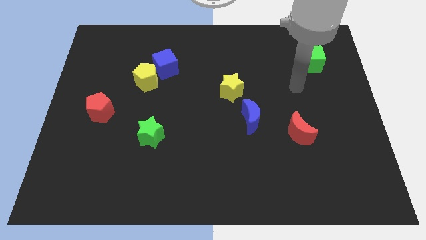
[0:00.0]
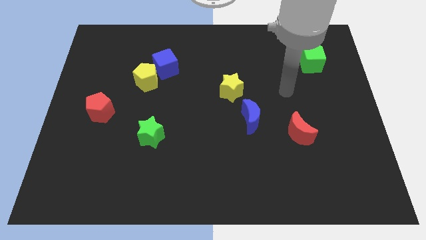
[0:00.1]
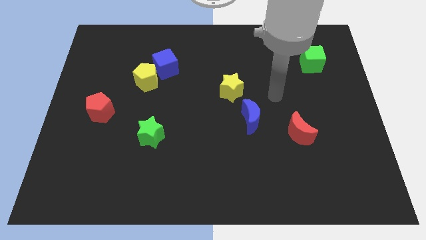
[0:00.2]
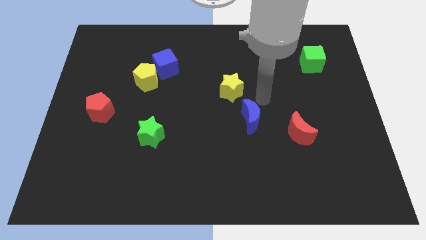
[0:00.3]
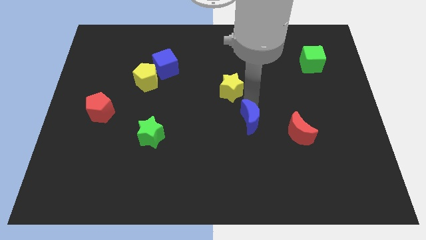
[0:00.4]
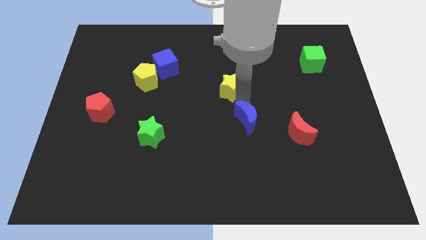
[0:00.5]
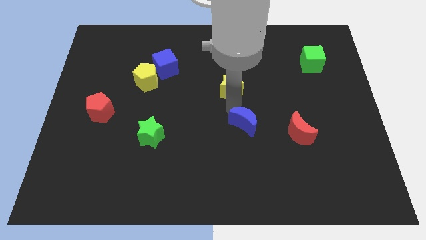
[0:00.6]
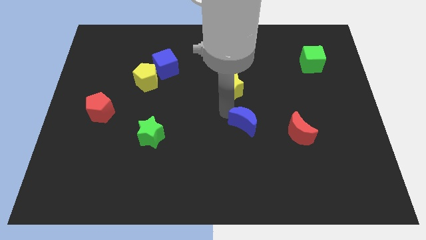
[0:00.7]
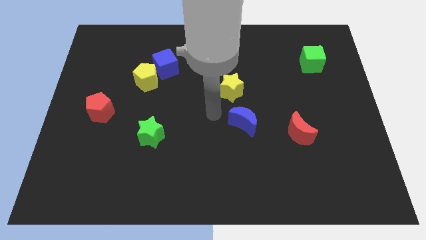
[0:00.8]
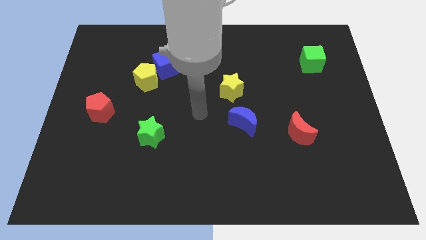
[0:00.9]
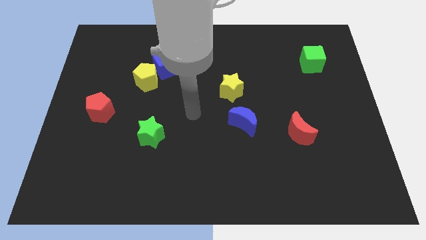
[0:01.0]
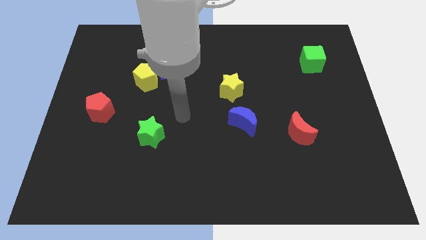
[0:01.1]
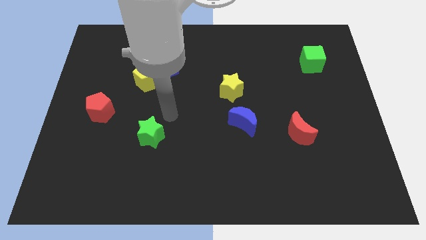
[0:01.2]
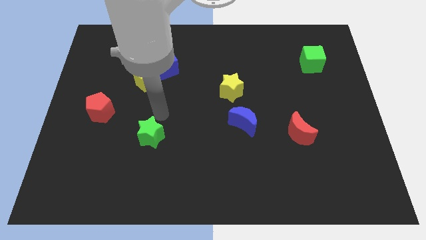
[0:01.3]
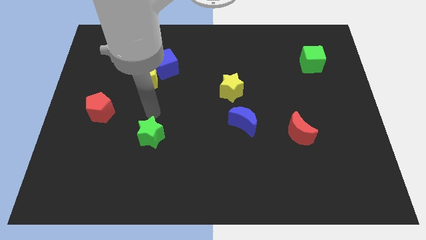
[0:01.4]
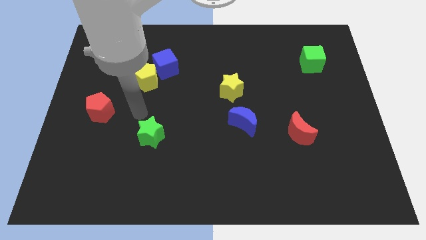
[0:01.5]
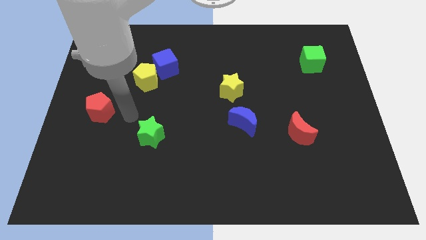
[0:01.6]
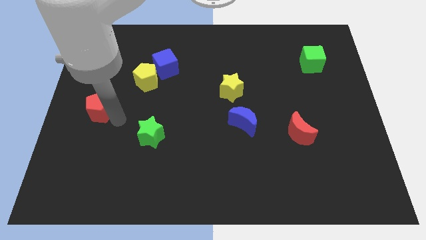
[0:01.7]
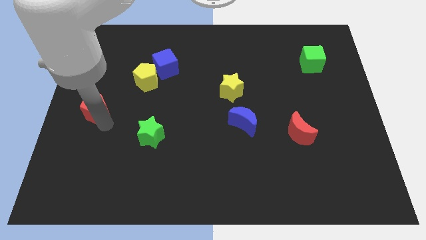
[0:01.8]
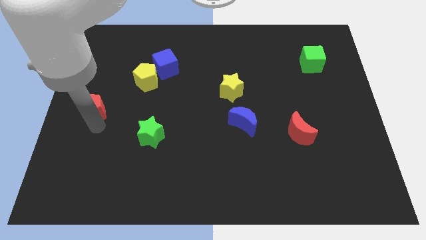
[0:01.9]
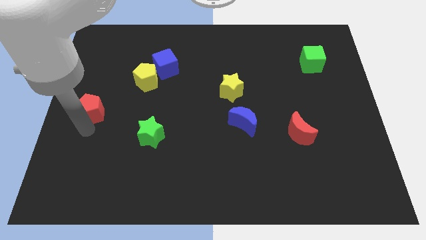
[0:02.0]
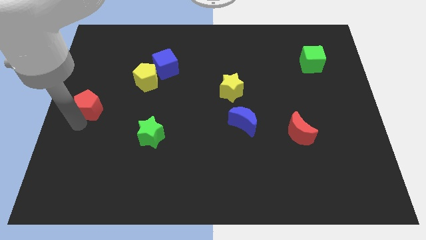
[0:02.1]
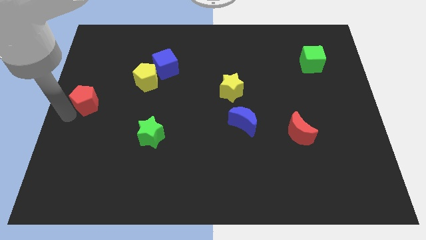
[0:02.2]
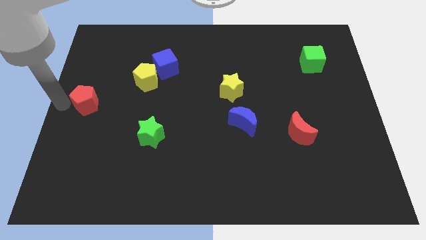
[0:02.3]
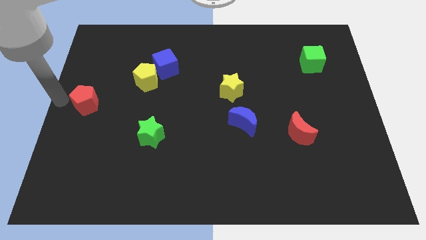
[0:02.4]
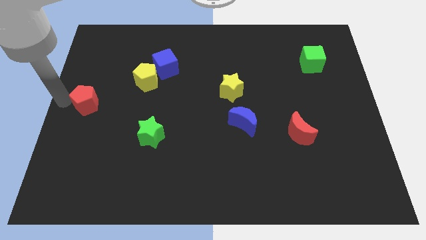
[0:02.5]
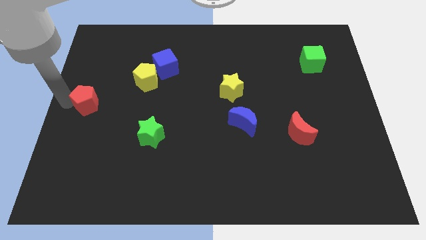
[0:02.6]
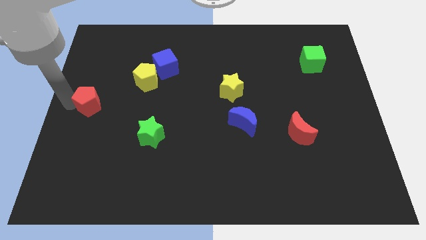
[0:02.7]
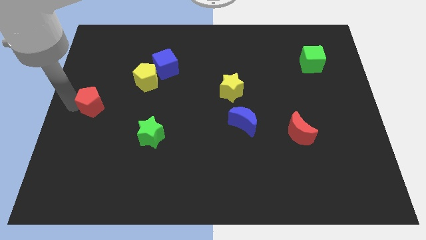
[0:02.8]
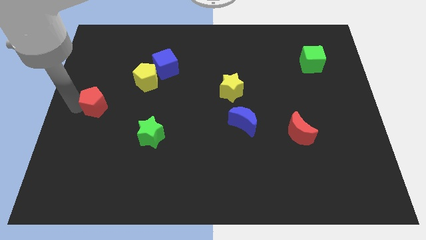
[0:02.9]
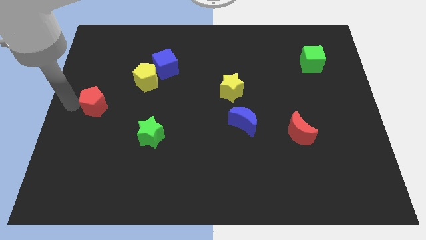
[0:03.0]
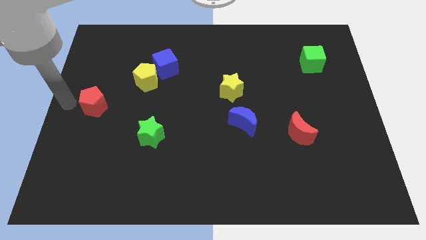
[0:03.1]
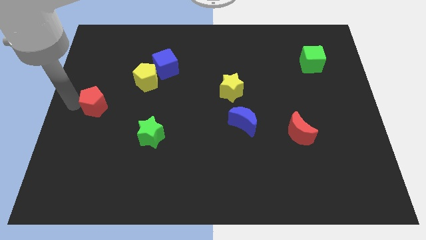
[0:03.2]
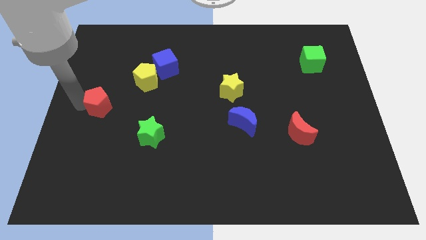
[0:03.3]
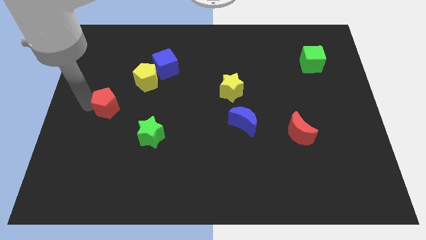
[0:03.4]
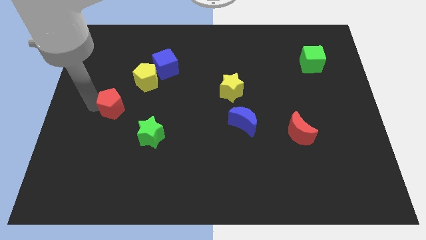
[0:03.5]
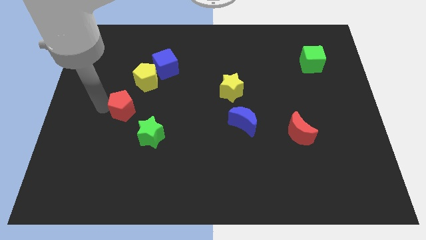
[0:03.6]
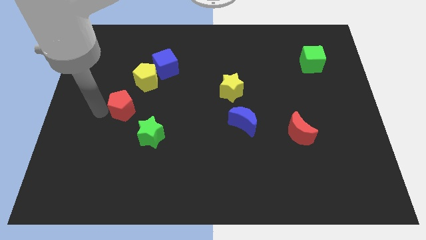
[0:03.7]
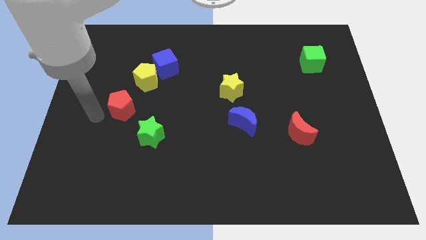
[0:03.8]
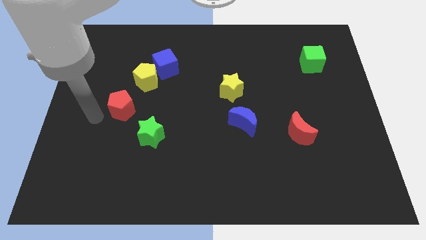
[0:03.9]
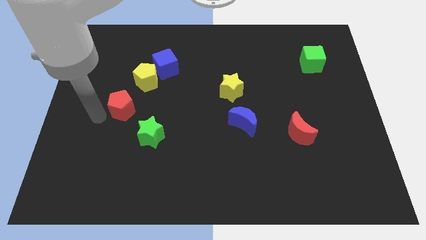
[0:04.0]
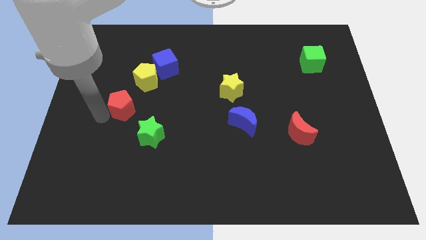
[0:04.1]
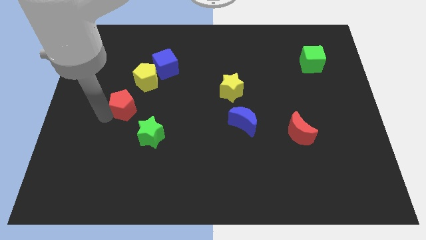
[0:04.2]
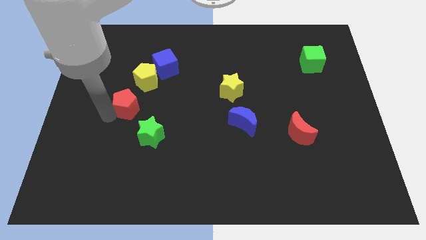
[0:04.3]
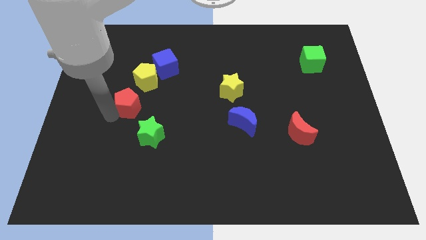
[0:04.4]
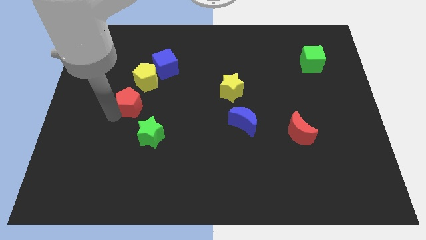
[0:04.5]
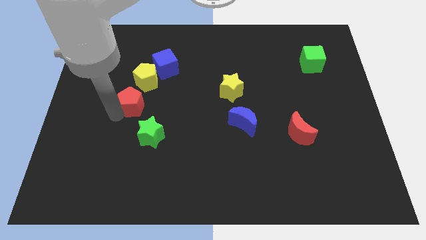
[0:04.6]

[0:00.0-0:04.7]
move the red pentagon to the right a little

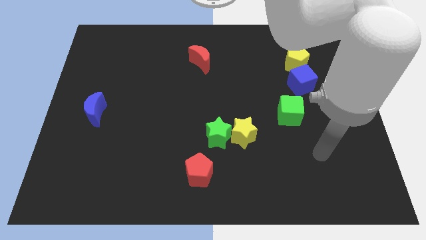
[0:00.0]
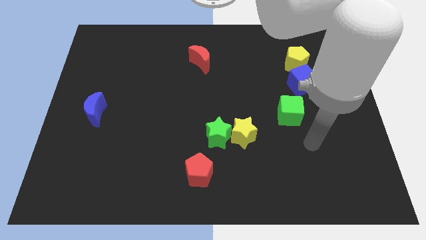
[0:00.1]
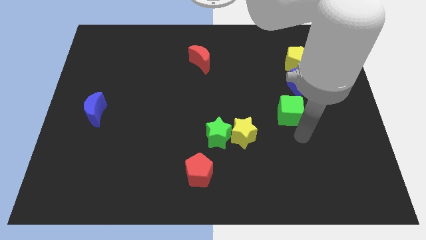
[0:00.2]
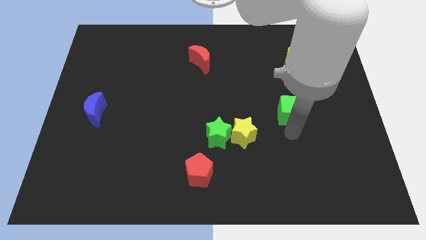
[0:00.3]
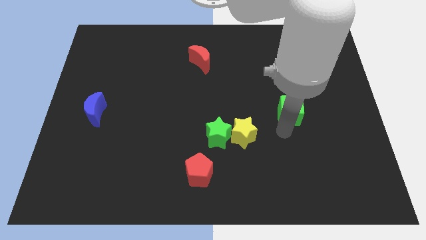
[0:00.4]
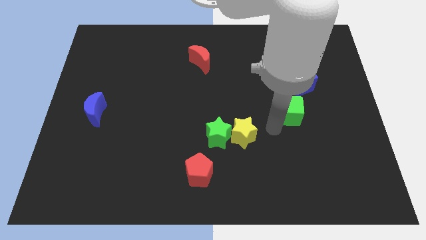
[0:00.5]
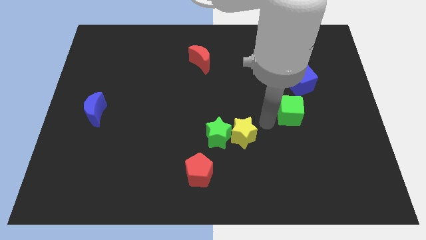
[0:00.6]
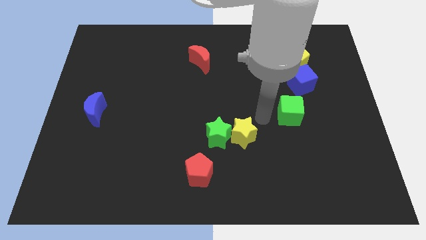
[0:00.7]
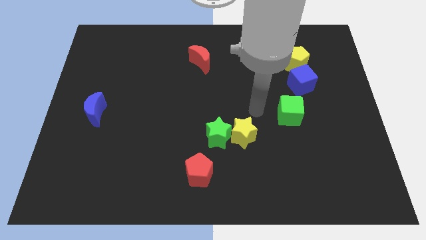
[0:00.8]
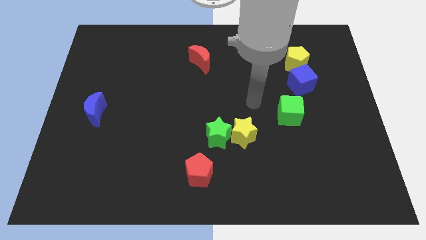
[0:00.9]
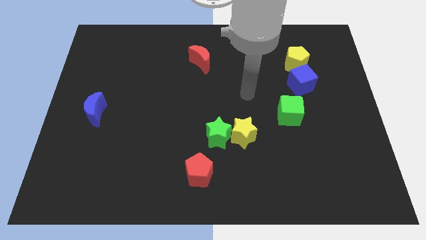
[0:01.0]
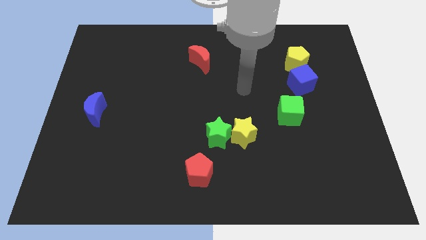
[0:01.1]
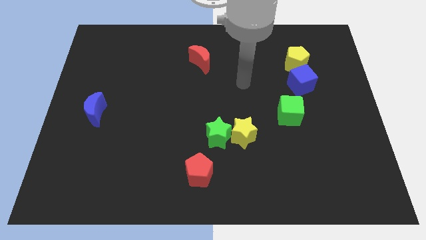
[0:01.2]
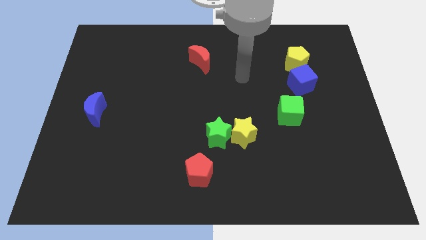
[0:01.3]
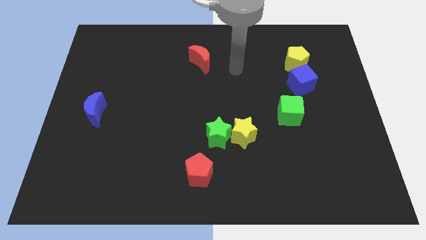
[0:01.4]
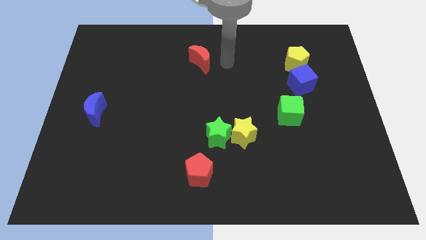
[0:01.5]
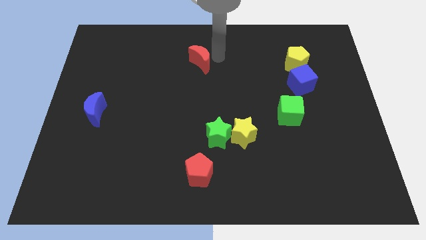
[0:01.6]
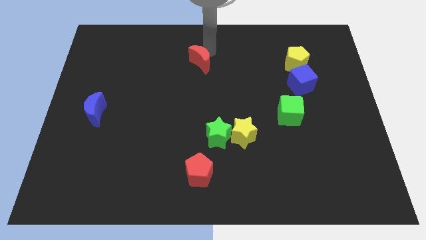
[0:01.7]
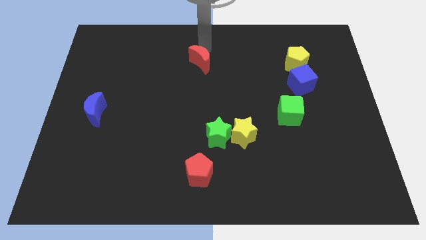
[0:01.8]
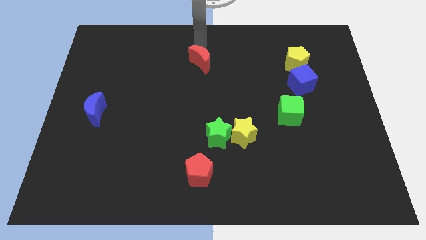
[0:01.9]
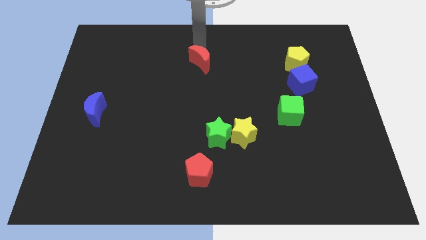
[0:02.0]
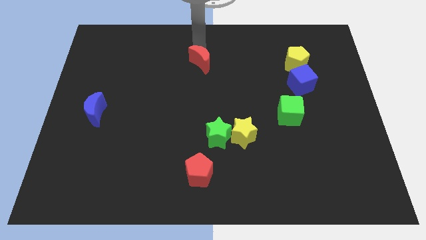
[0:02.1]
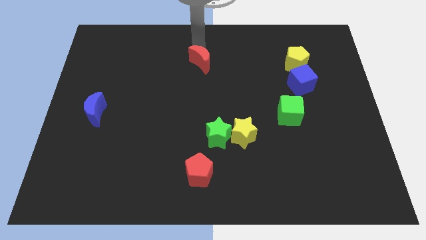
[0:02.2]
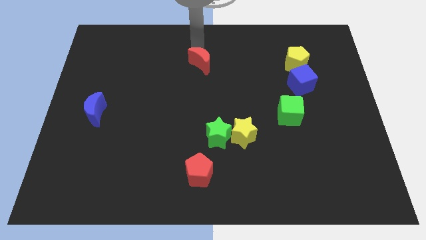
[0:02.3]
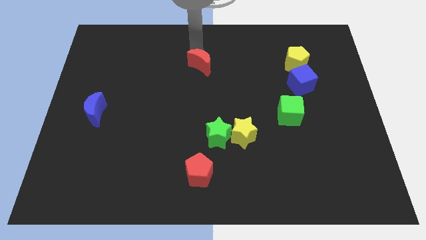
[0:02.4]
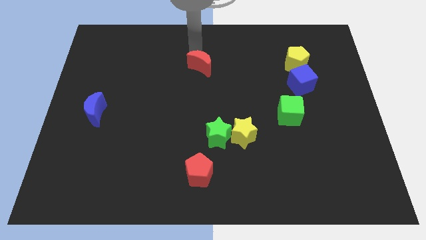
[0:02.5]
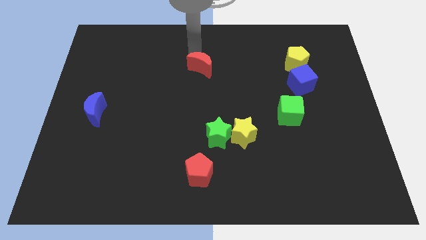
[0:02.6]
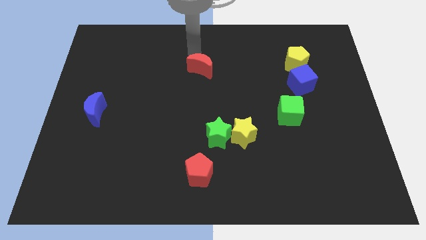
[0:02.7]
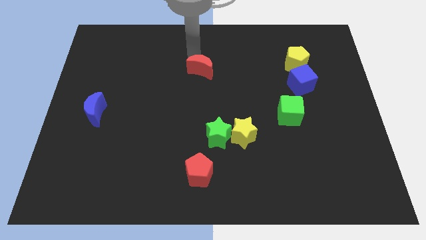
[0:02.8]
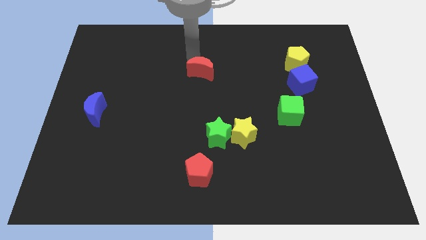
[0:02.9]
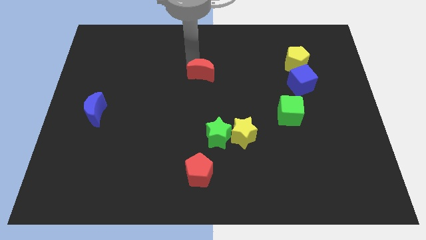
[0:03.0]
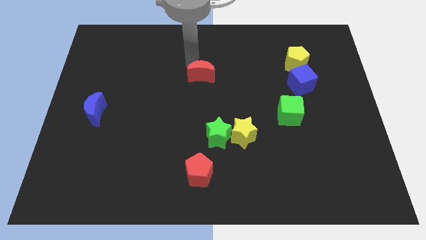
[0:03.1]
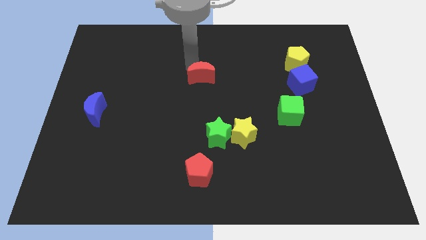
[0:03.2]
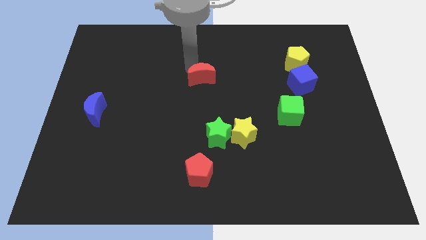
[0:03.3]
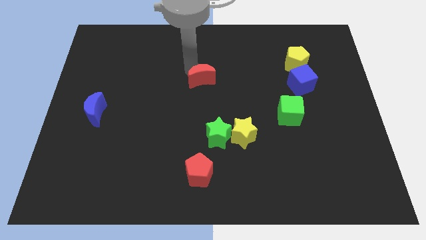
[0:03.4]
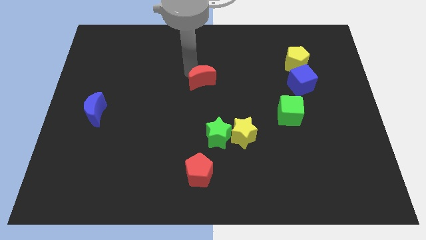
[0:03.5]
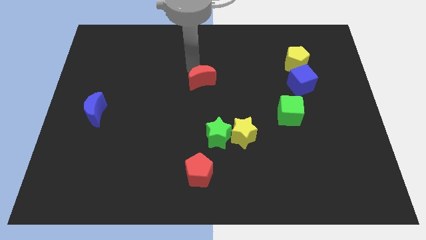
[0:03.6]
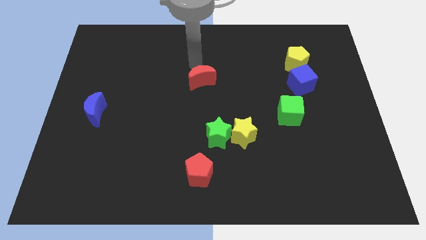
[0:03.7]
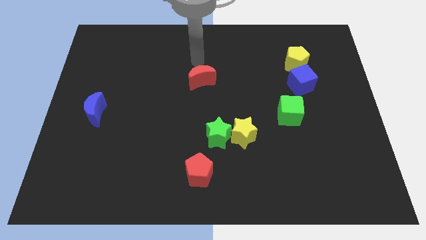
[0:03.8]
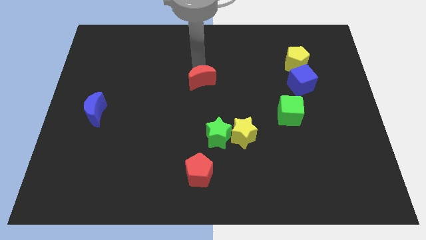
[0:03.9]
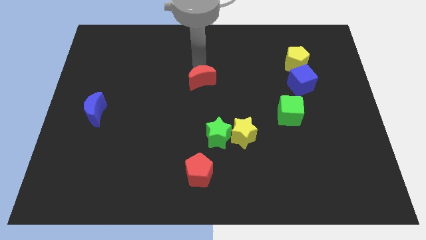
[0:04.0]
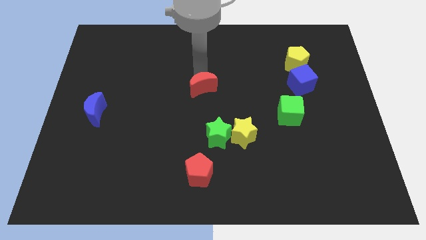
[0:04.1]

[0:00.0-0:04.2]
slide the red moon down a little bit
